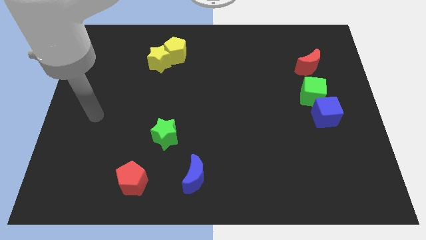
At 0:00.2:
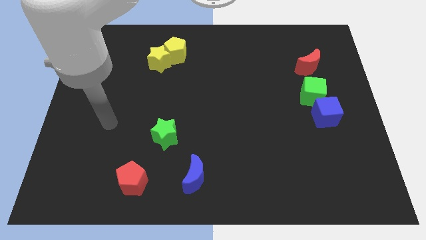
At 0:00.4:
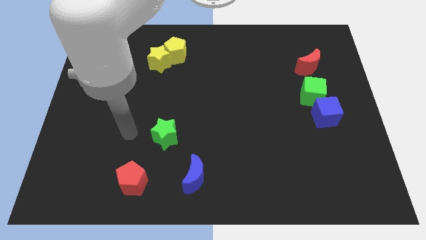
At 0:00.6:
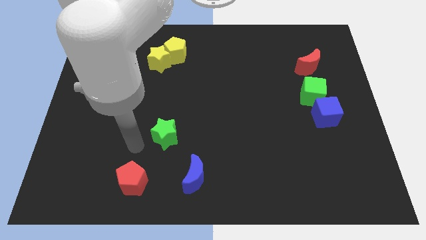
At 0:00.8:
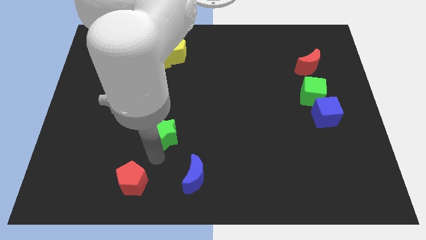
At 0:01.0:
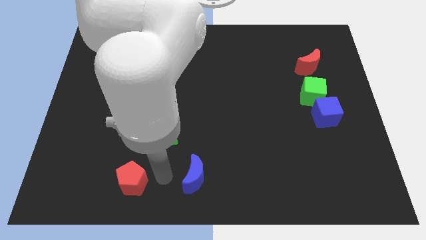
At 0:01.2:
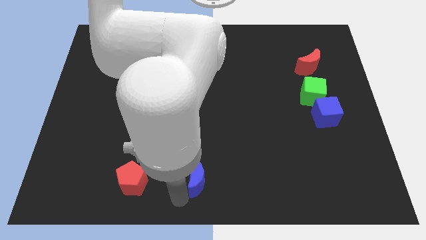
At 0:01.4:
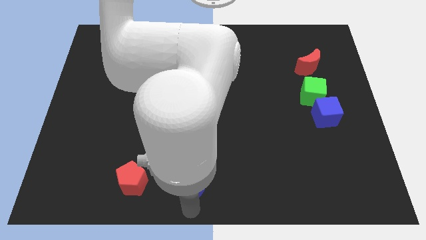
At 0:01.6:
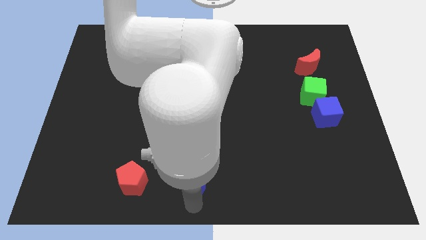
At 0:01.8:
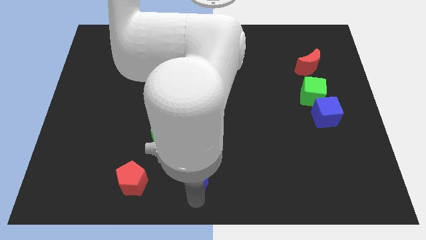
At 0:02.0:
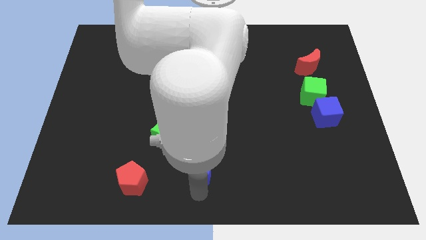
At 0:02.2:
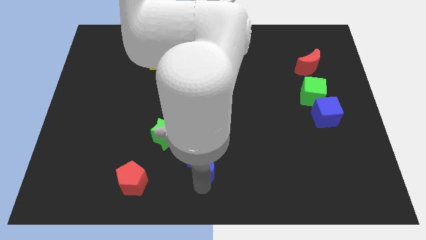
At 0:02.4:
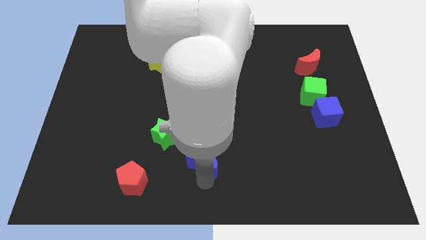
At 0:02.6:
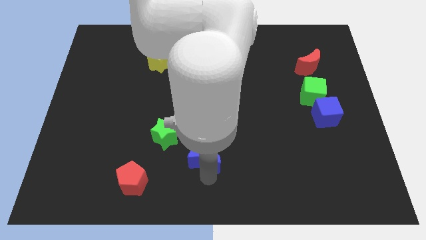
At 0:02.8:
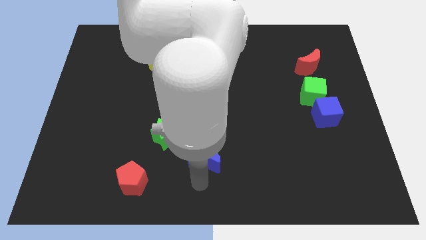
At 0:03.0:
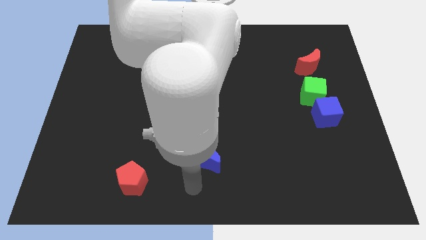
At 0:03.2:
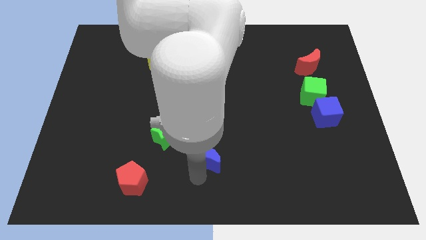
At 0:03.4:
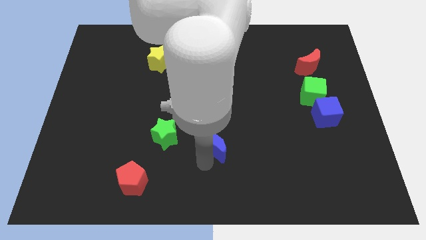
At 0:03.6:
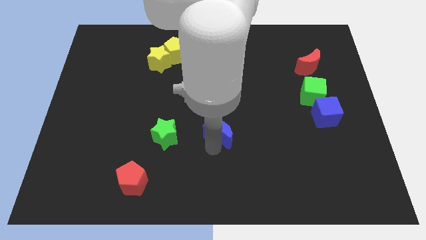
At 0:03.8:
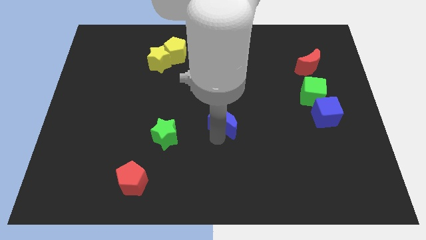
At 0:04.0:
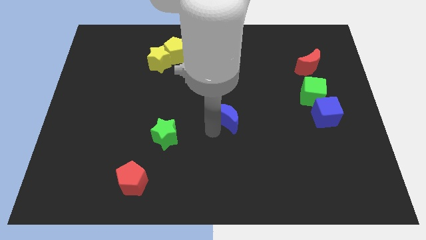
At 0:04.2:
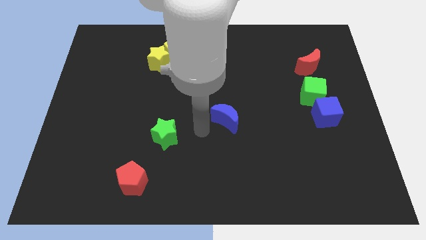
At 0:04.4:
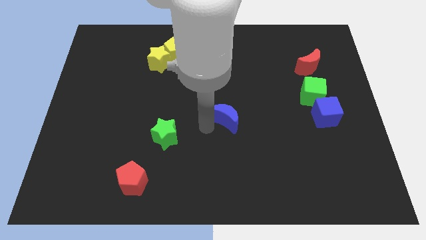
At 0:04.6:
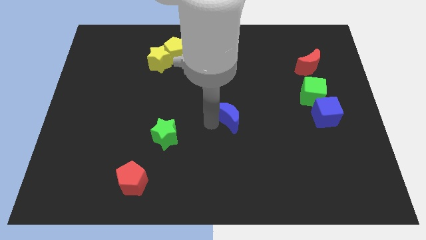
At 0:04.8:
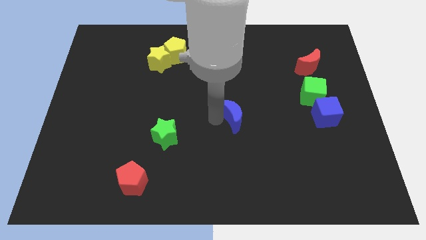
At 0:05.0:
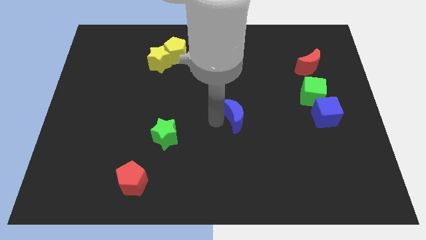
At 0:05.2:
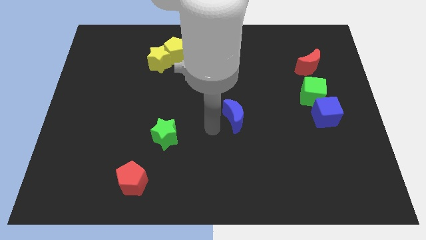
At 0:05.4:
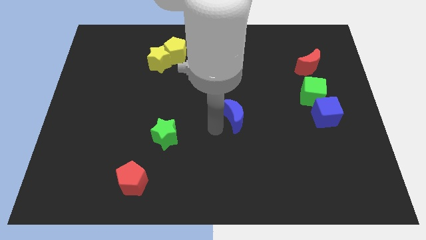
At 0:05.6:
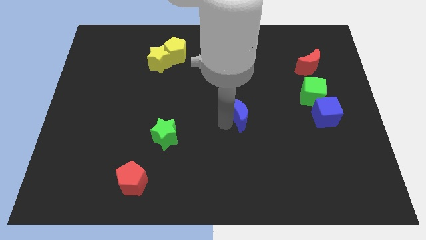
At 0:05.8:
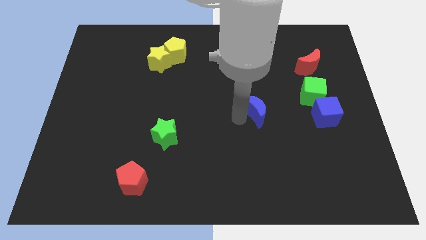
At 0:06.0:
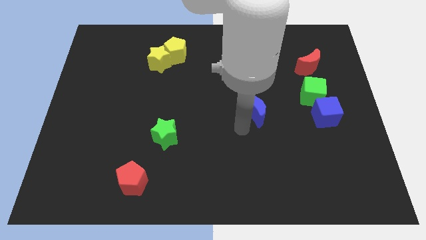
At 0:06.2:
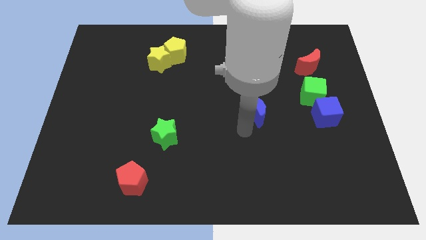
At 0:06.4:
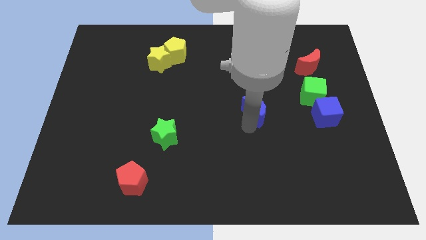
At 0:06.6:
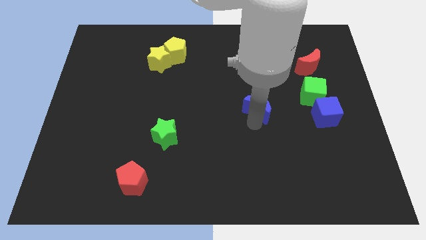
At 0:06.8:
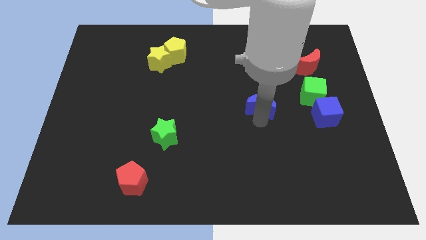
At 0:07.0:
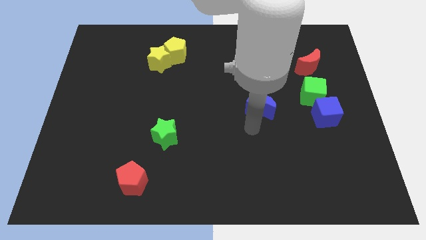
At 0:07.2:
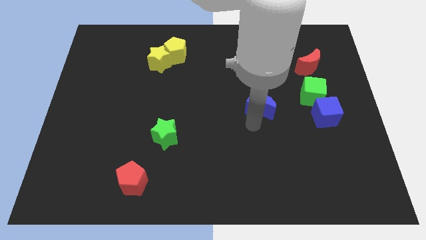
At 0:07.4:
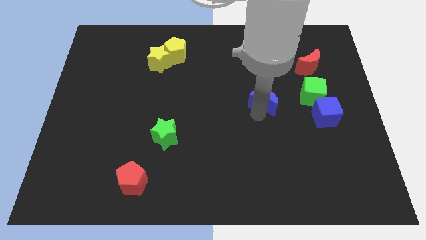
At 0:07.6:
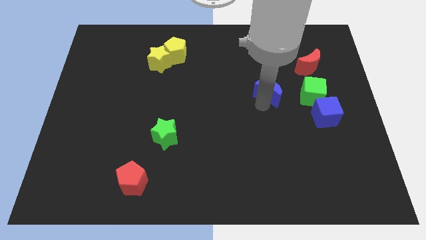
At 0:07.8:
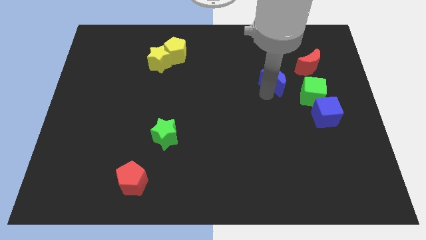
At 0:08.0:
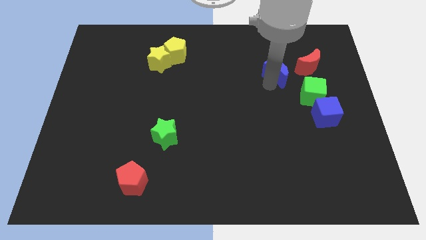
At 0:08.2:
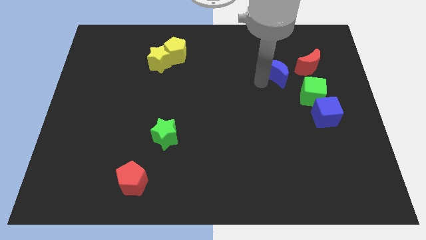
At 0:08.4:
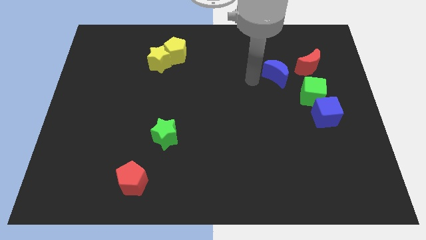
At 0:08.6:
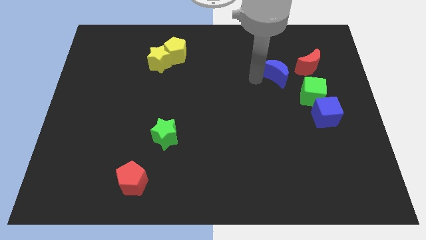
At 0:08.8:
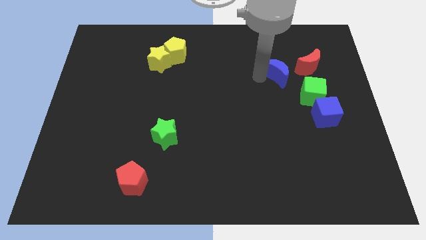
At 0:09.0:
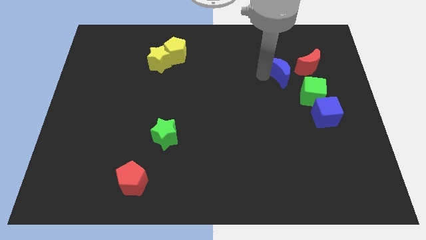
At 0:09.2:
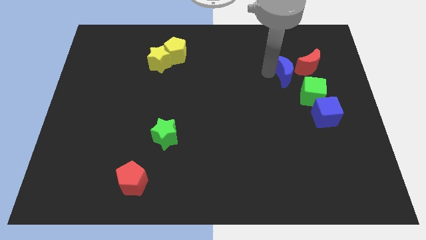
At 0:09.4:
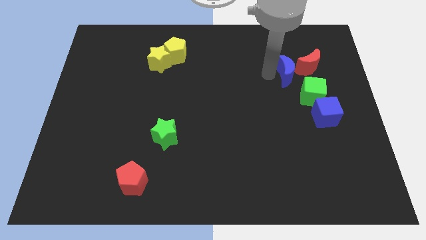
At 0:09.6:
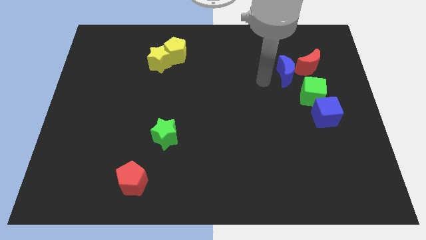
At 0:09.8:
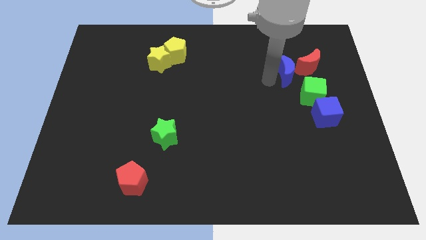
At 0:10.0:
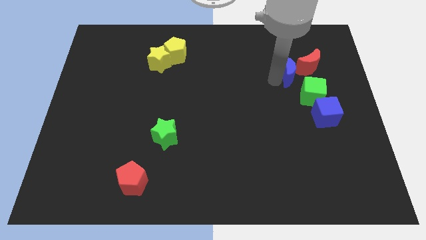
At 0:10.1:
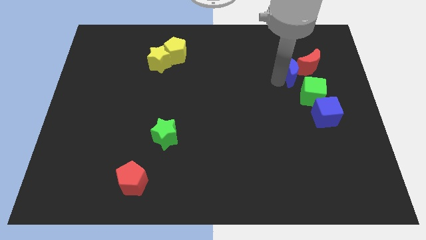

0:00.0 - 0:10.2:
slide the blue moon next to the red moon

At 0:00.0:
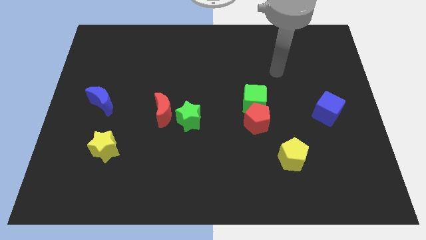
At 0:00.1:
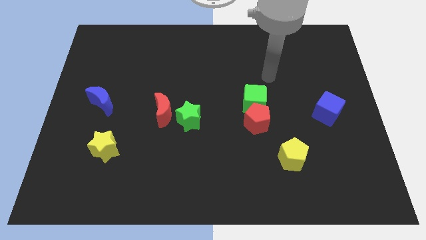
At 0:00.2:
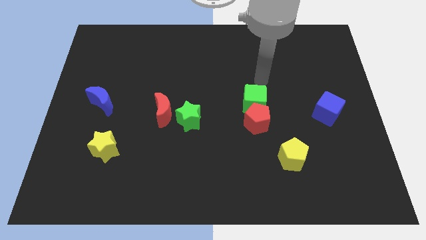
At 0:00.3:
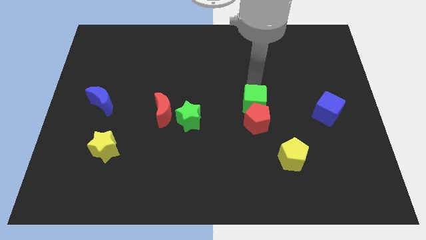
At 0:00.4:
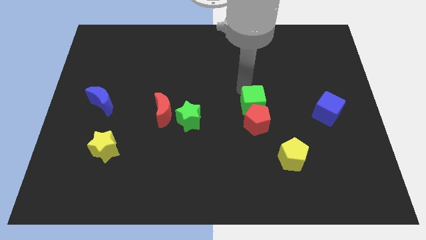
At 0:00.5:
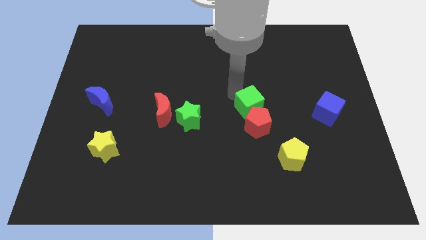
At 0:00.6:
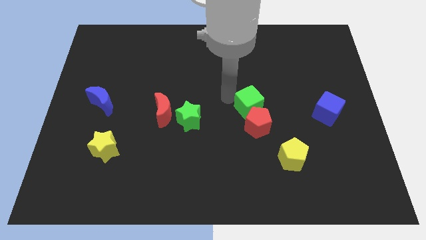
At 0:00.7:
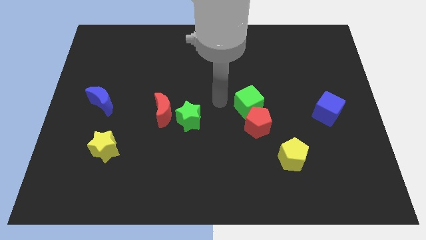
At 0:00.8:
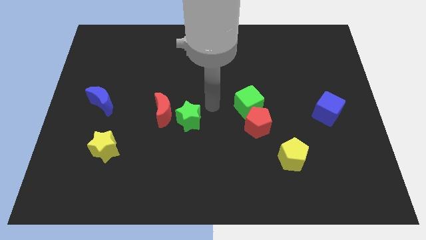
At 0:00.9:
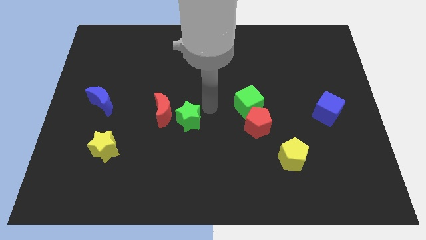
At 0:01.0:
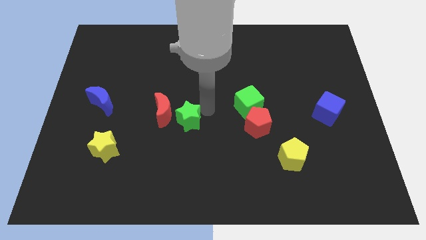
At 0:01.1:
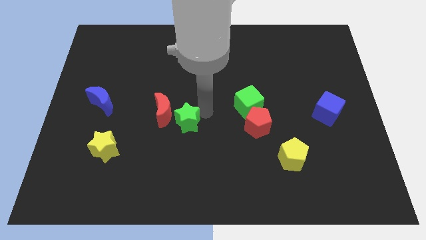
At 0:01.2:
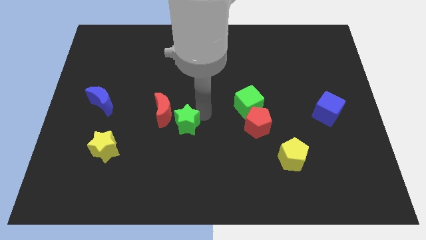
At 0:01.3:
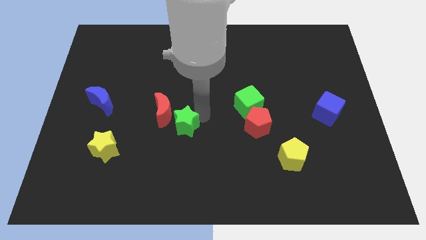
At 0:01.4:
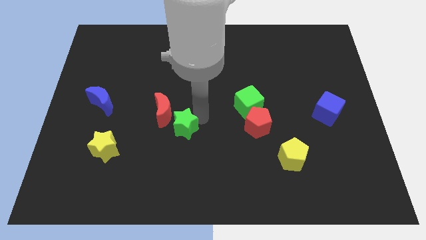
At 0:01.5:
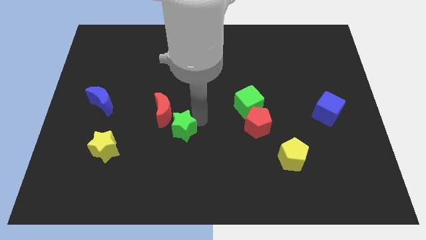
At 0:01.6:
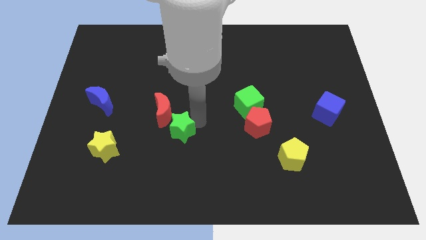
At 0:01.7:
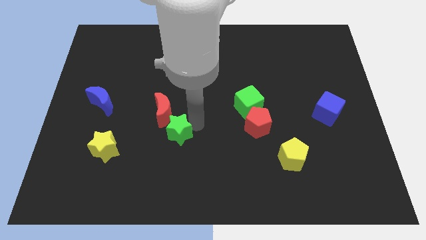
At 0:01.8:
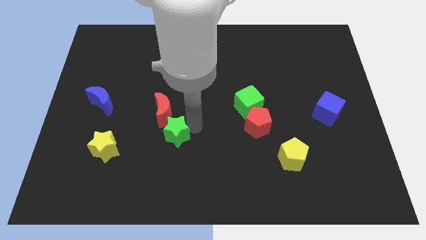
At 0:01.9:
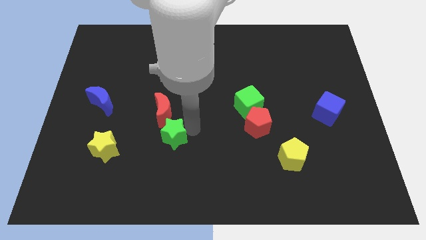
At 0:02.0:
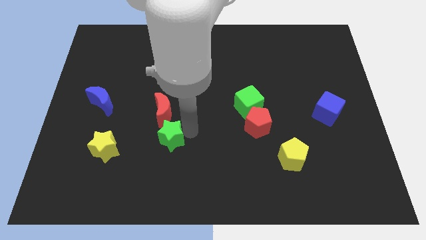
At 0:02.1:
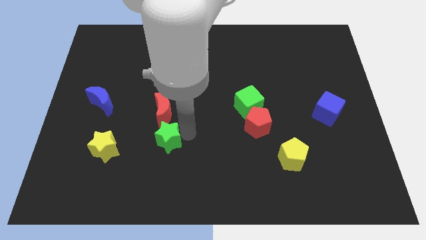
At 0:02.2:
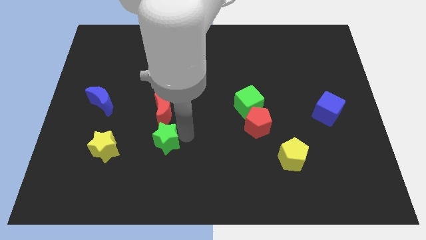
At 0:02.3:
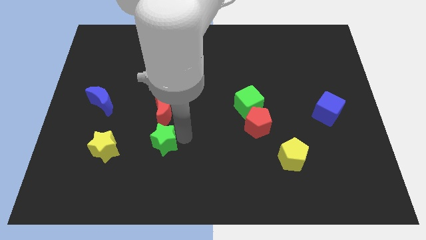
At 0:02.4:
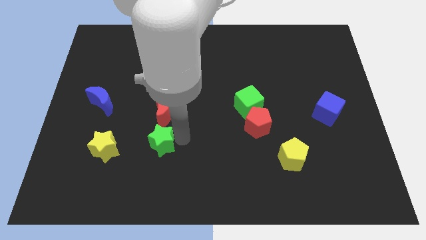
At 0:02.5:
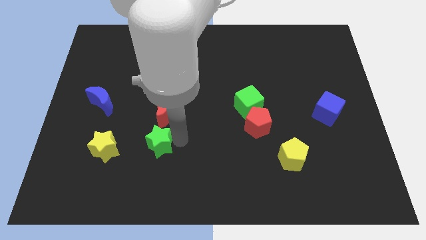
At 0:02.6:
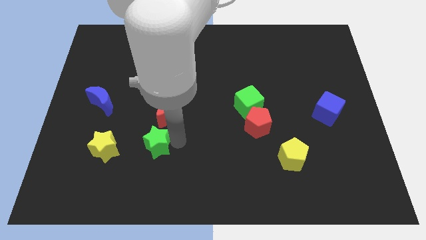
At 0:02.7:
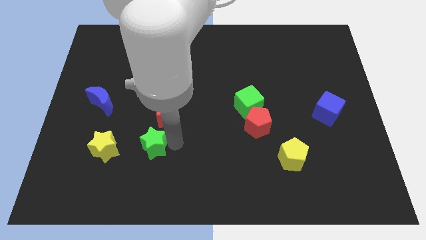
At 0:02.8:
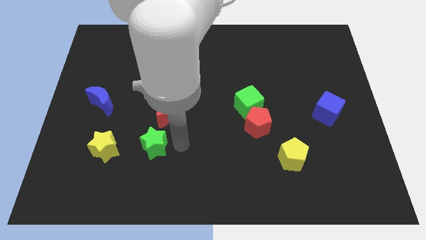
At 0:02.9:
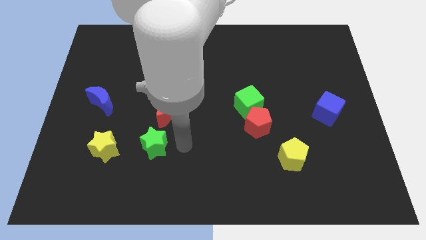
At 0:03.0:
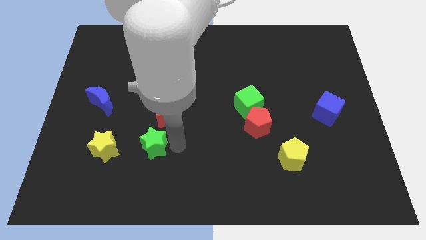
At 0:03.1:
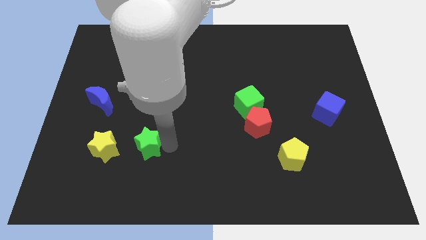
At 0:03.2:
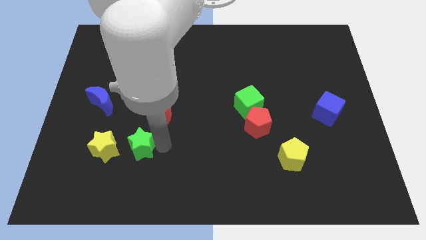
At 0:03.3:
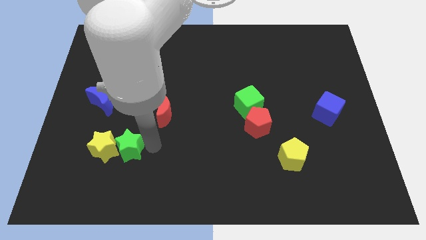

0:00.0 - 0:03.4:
slide the green star to the yellow star
